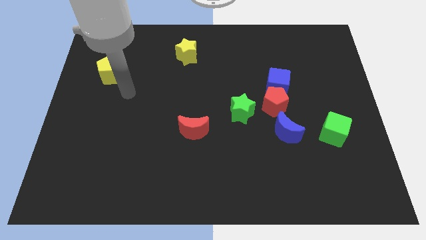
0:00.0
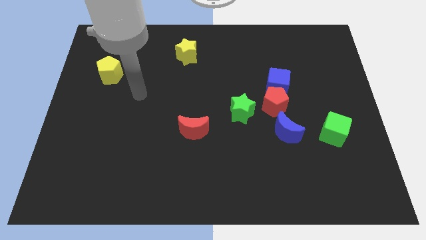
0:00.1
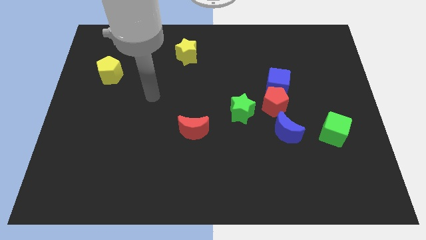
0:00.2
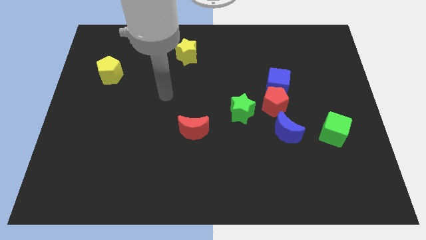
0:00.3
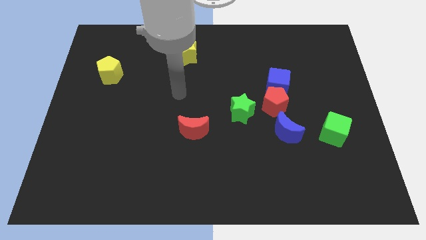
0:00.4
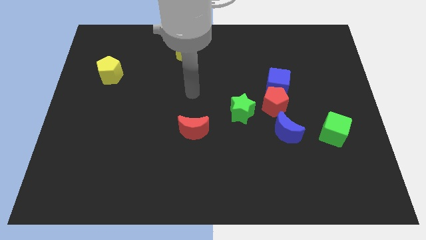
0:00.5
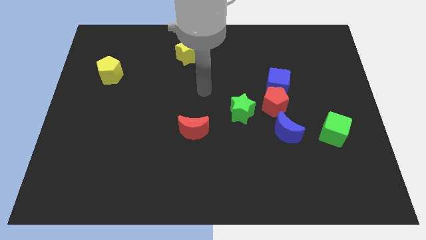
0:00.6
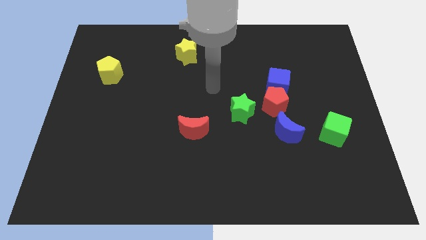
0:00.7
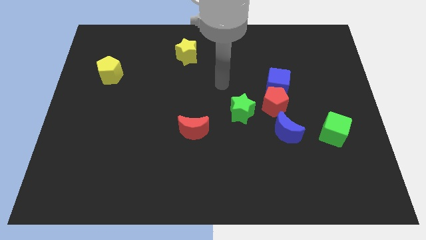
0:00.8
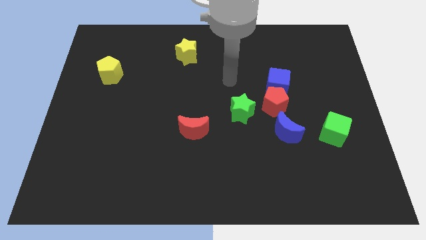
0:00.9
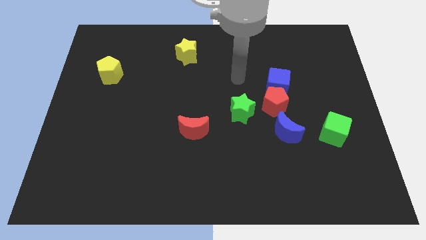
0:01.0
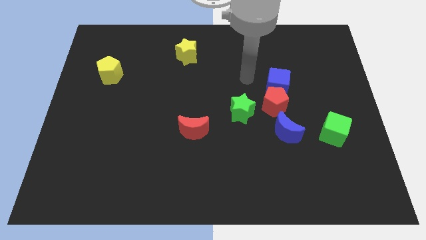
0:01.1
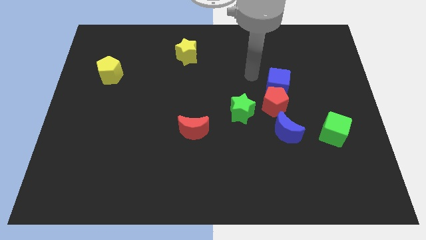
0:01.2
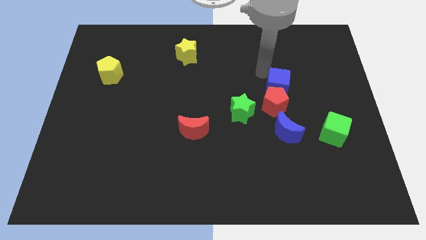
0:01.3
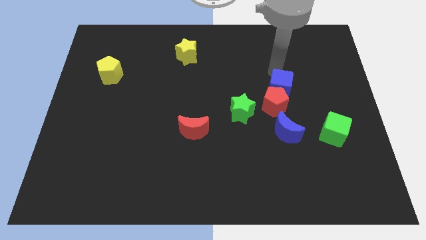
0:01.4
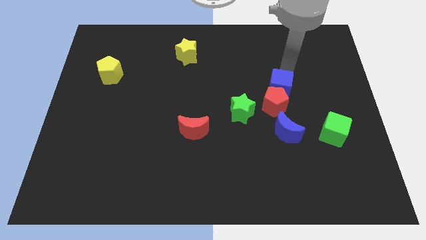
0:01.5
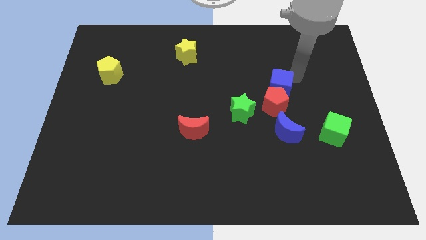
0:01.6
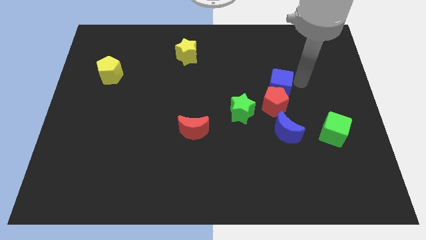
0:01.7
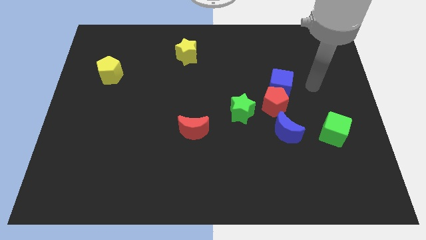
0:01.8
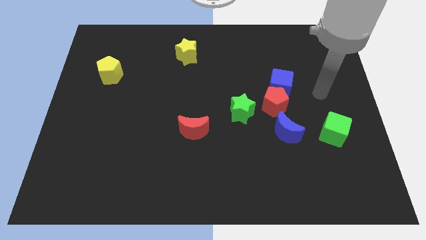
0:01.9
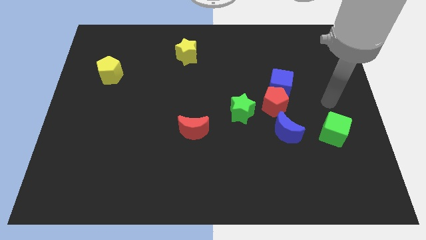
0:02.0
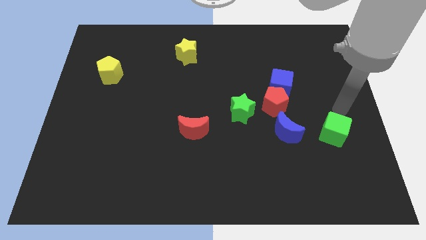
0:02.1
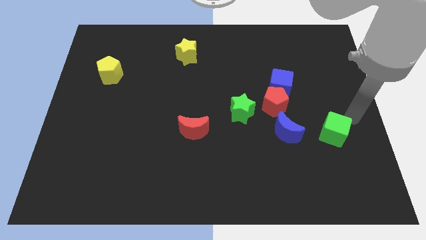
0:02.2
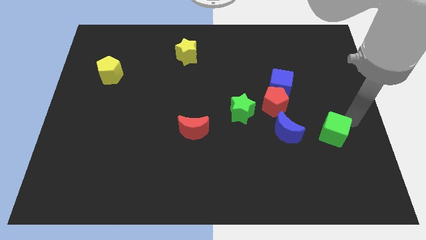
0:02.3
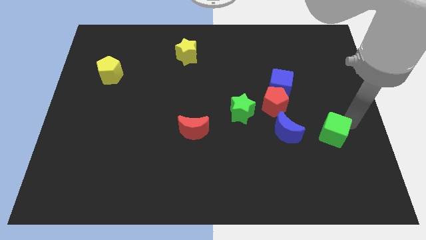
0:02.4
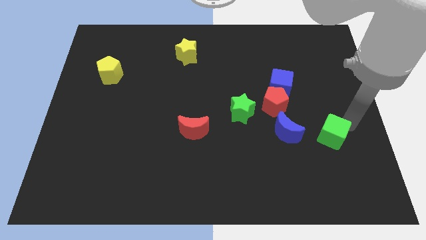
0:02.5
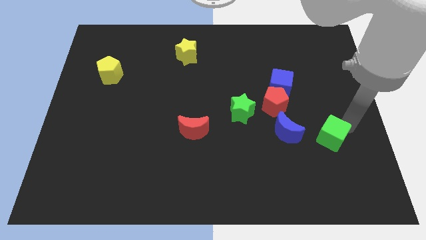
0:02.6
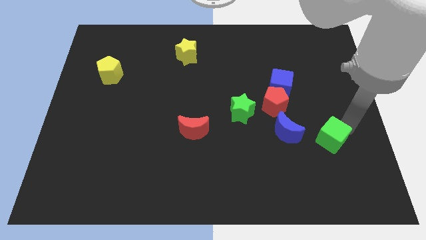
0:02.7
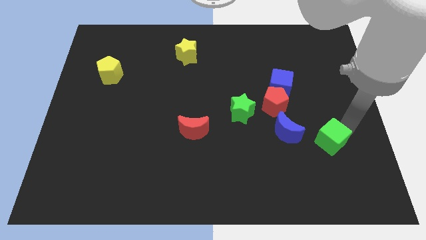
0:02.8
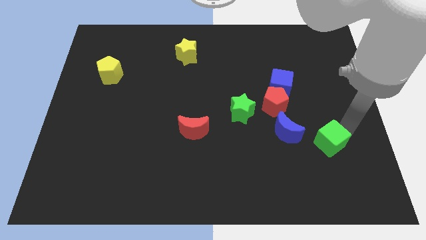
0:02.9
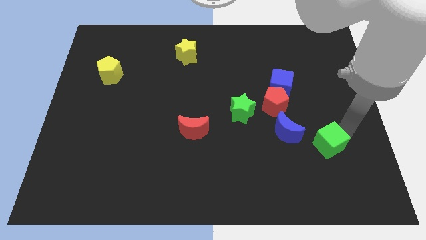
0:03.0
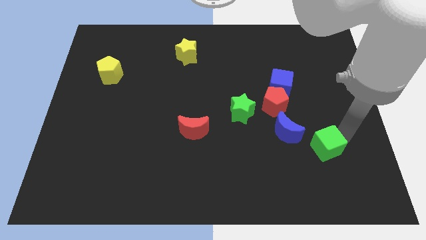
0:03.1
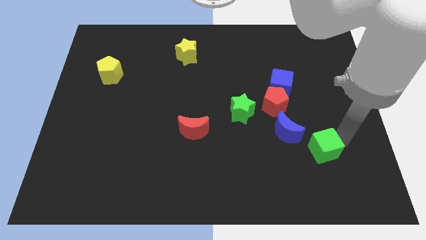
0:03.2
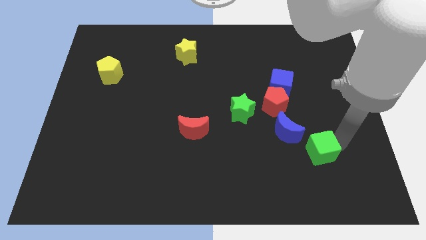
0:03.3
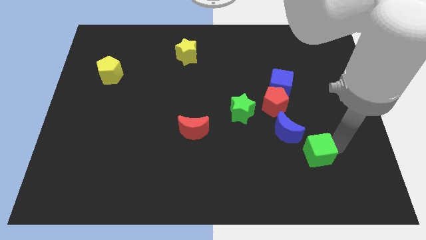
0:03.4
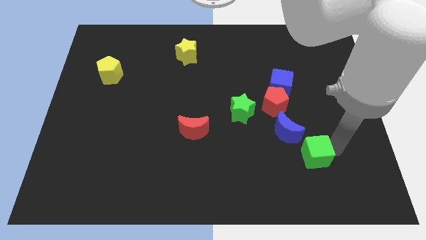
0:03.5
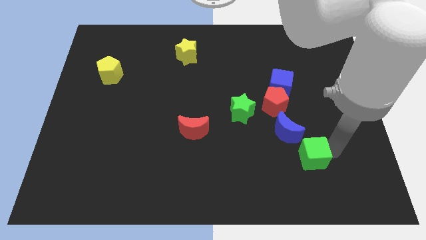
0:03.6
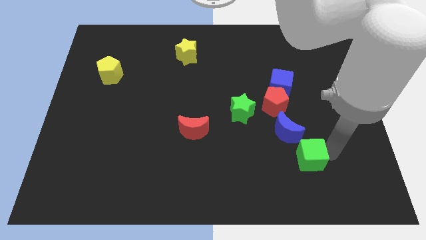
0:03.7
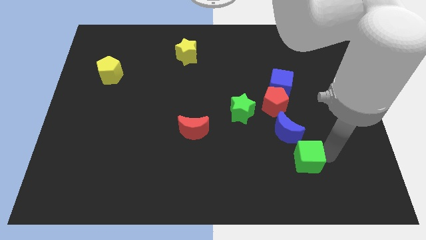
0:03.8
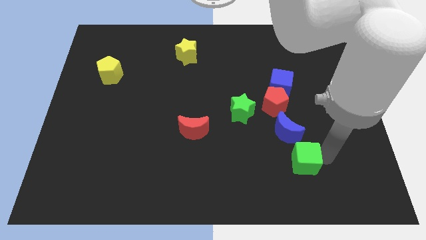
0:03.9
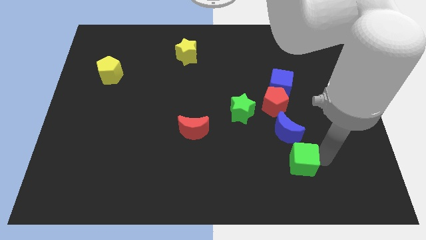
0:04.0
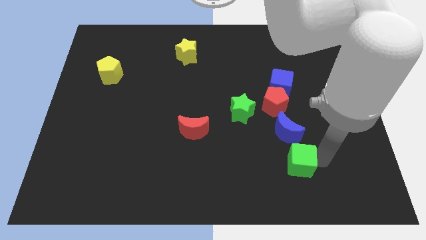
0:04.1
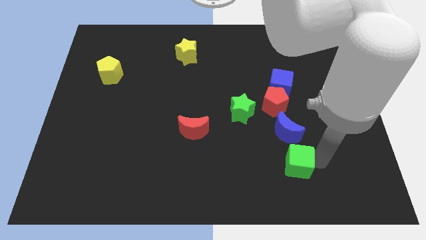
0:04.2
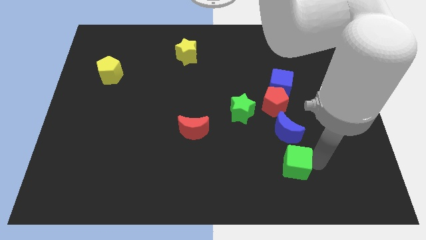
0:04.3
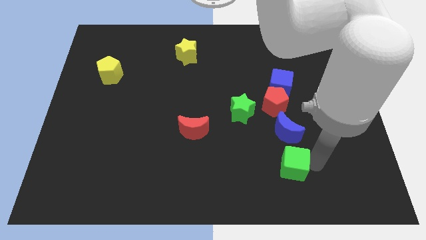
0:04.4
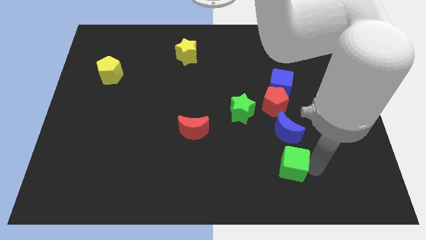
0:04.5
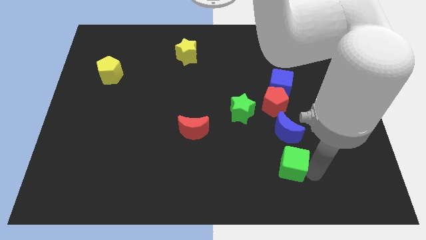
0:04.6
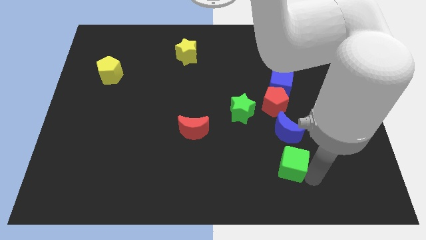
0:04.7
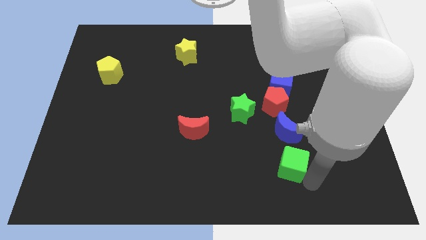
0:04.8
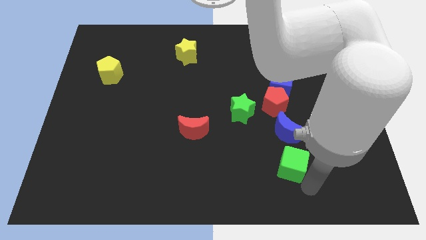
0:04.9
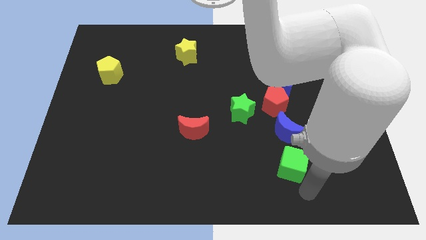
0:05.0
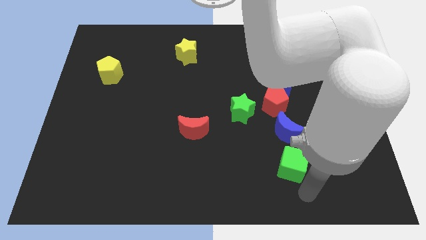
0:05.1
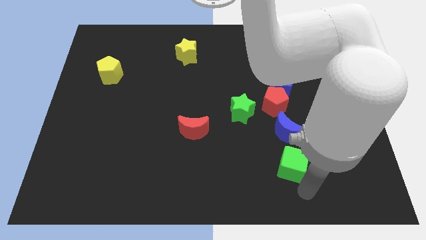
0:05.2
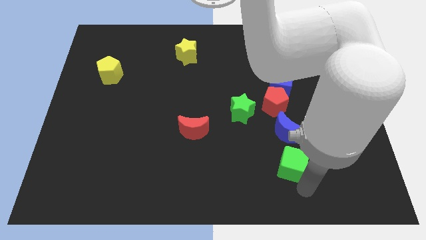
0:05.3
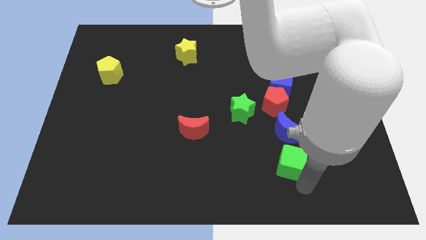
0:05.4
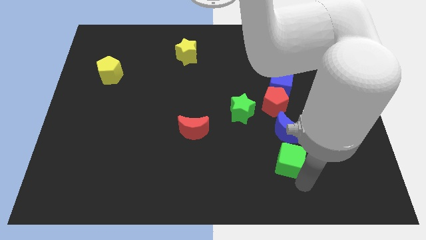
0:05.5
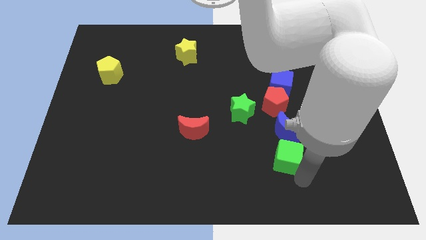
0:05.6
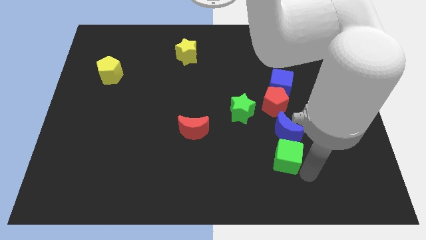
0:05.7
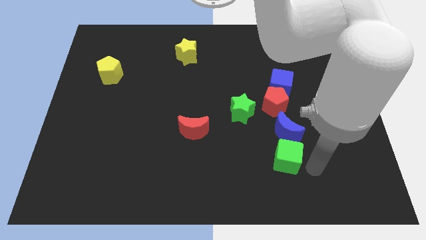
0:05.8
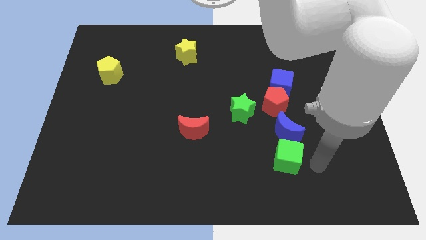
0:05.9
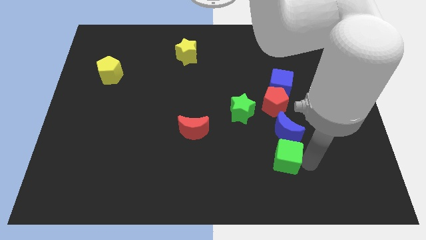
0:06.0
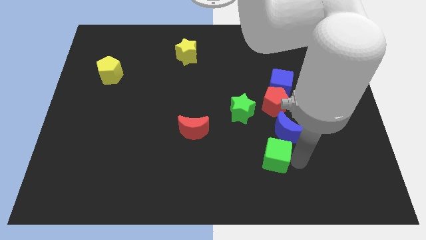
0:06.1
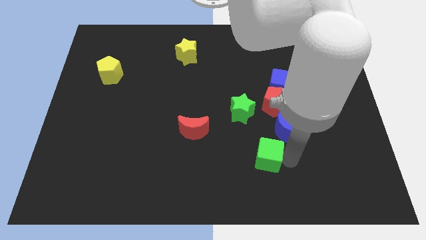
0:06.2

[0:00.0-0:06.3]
move the green cube below the green star

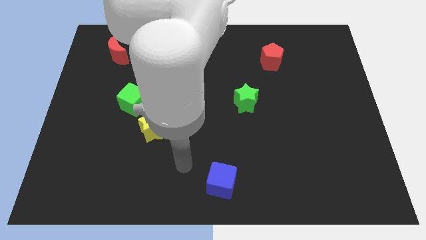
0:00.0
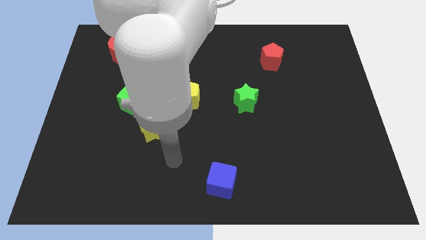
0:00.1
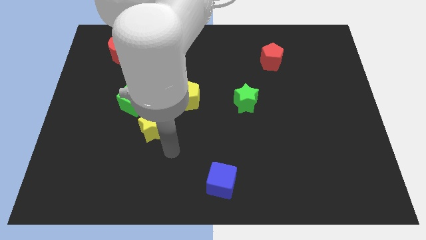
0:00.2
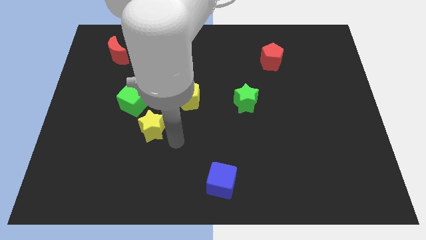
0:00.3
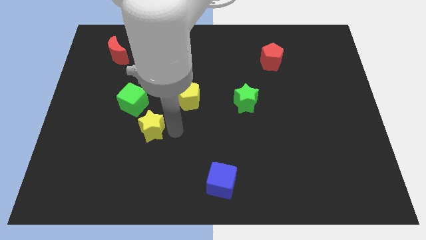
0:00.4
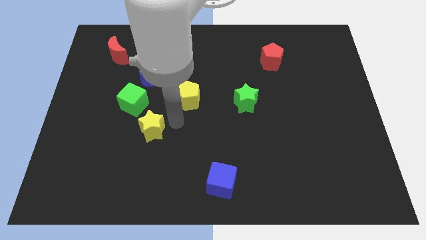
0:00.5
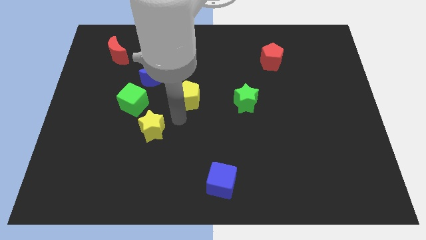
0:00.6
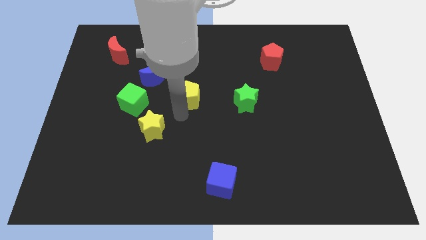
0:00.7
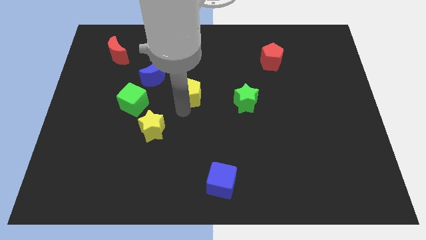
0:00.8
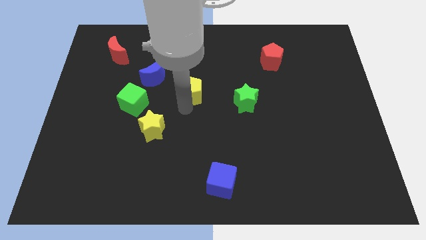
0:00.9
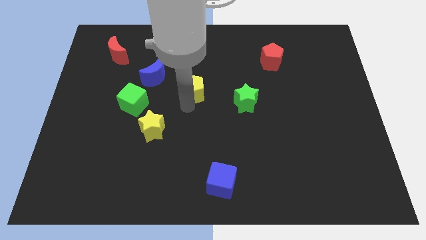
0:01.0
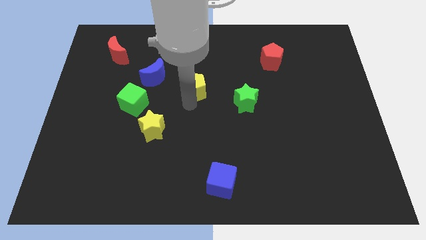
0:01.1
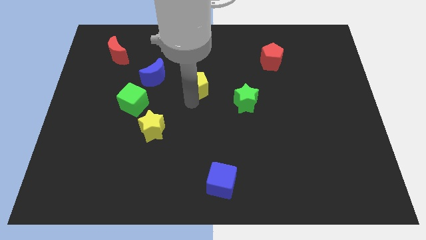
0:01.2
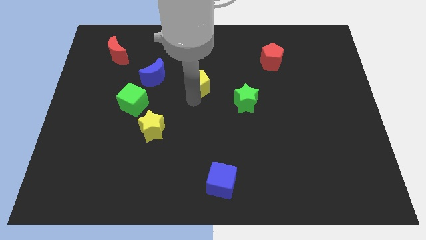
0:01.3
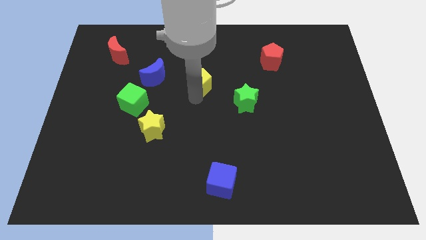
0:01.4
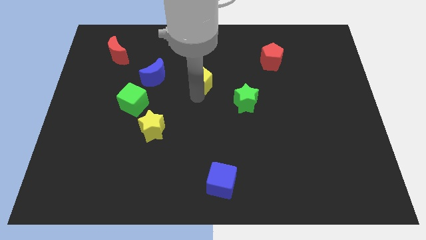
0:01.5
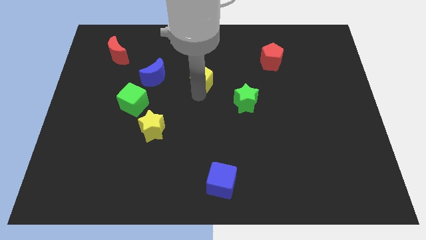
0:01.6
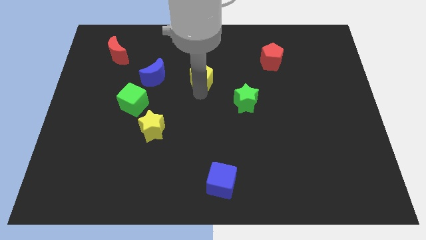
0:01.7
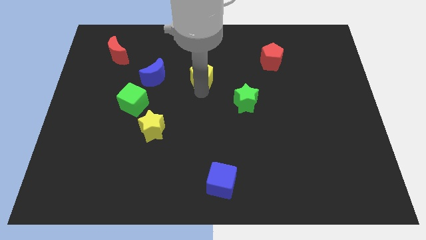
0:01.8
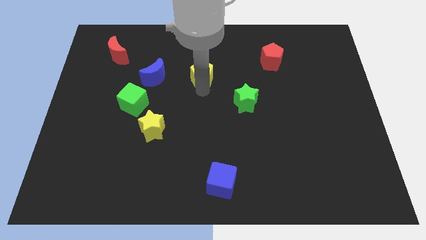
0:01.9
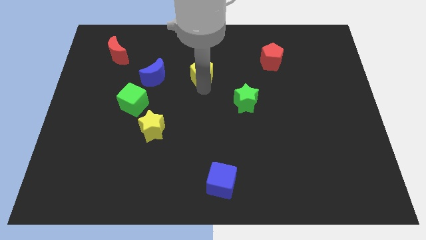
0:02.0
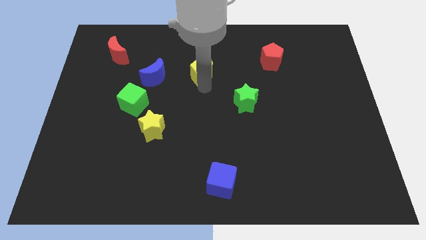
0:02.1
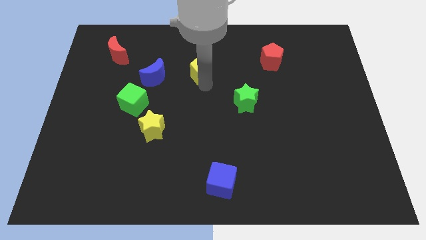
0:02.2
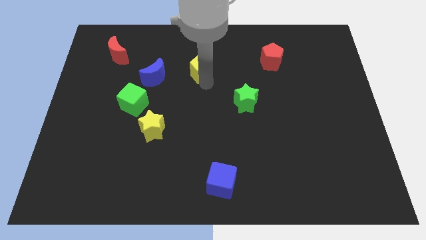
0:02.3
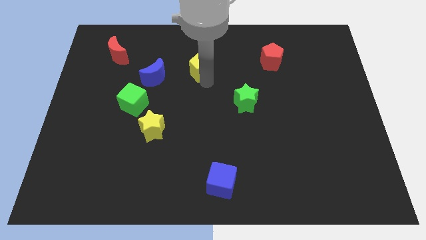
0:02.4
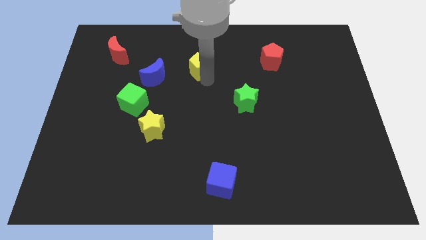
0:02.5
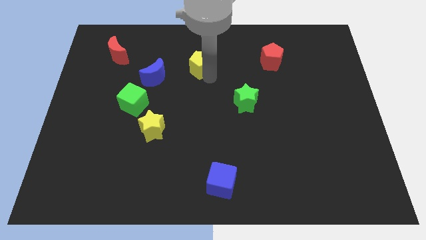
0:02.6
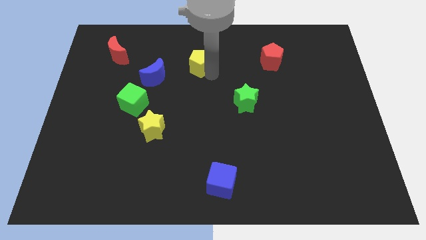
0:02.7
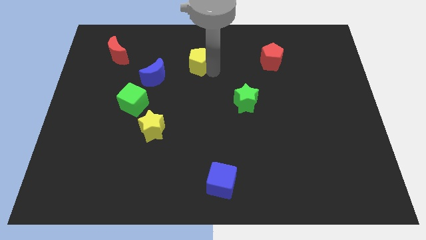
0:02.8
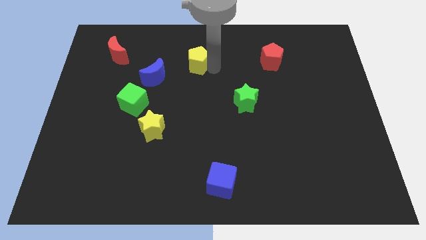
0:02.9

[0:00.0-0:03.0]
push the yellow pentagon to the top right side of the blue moon
